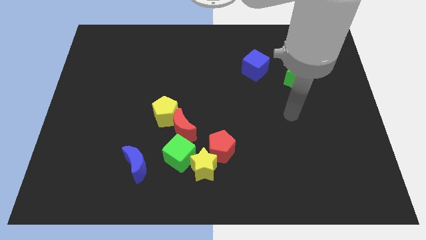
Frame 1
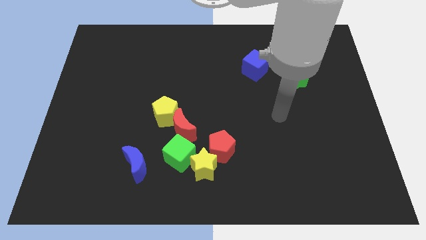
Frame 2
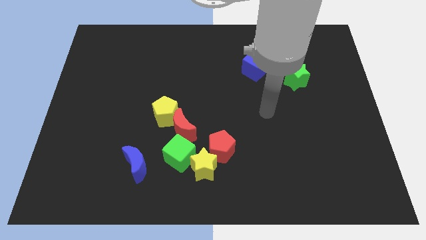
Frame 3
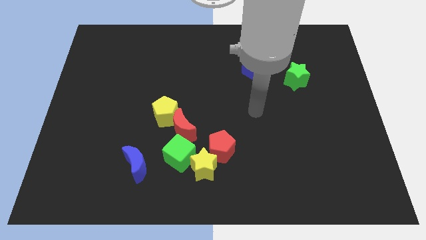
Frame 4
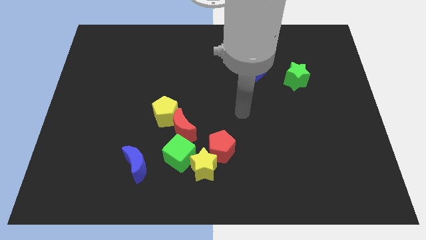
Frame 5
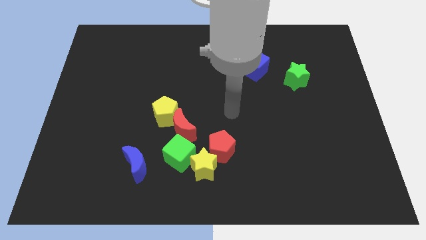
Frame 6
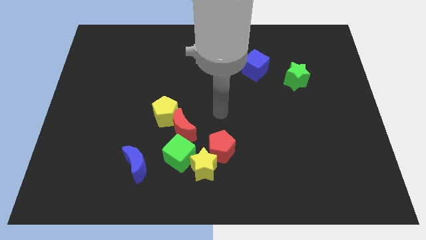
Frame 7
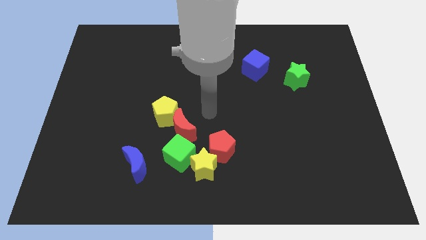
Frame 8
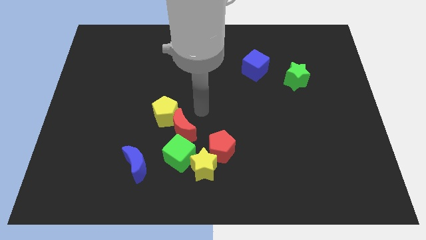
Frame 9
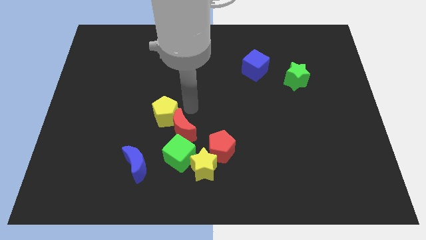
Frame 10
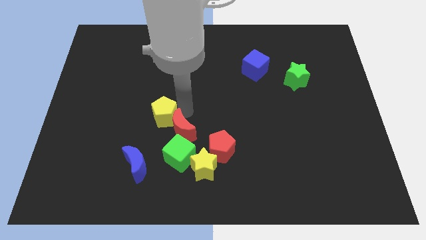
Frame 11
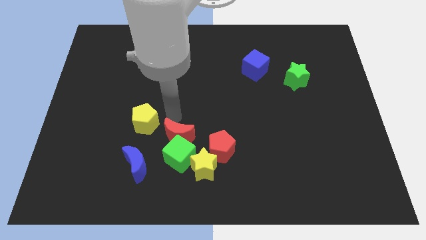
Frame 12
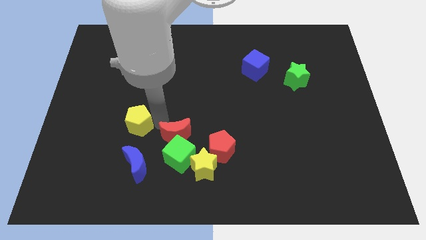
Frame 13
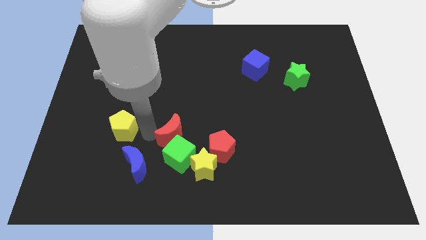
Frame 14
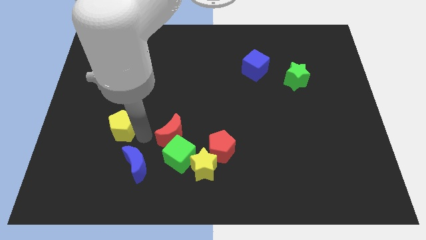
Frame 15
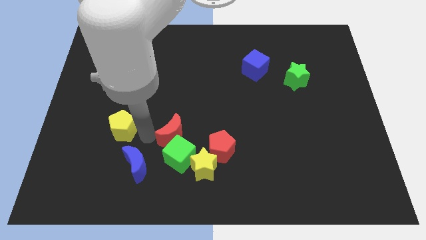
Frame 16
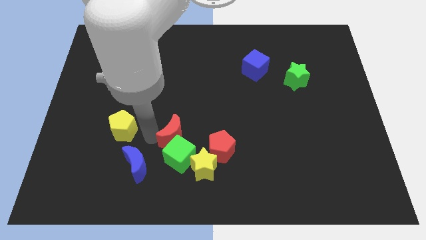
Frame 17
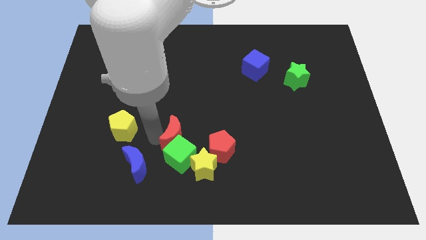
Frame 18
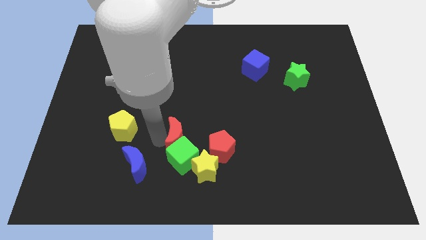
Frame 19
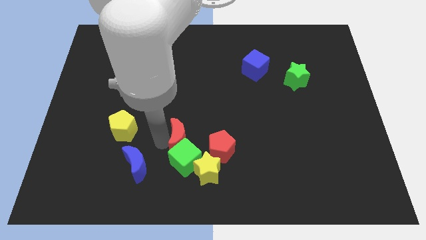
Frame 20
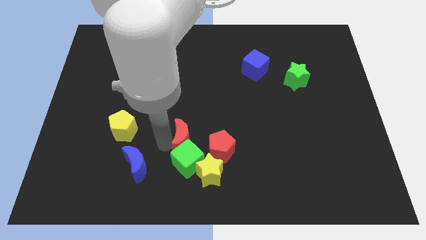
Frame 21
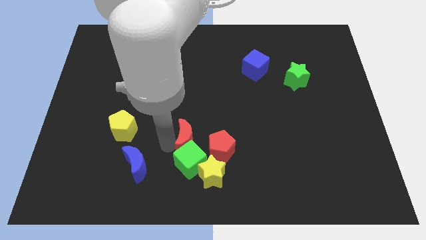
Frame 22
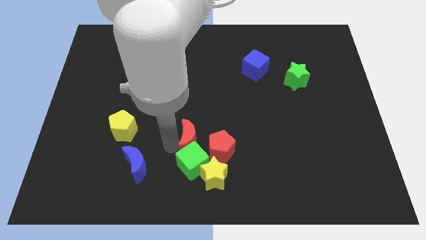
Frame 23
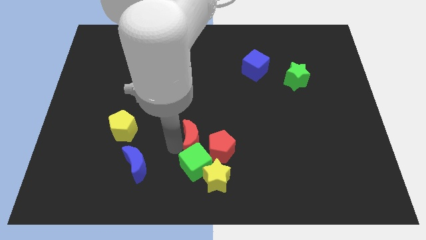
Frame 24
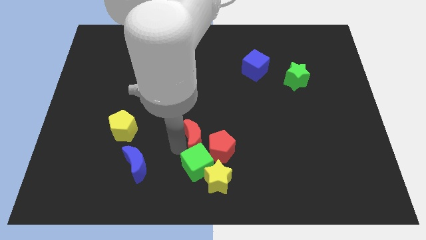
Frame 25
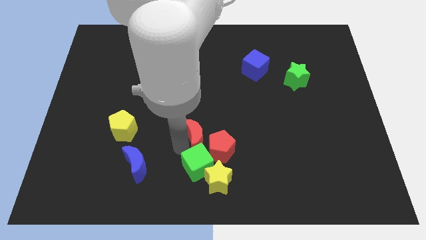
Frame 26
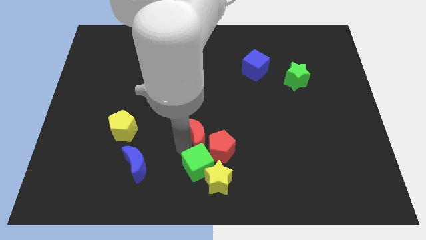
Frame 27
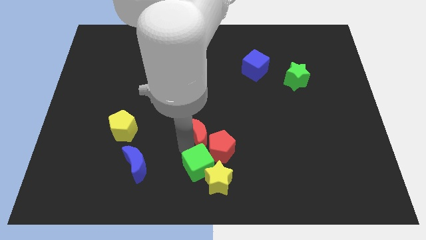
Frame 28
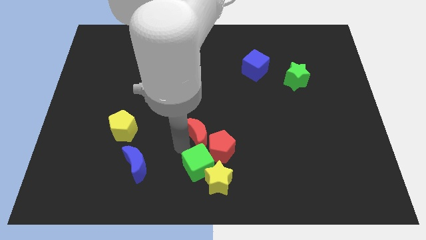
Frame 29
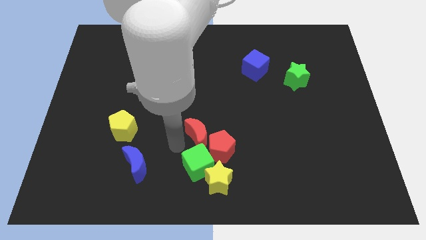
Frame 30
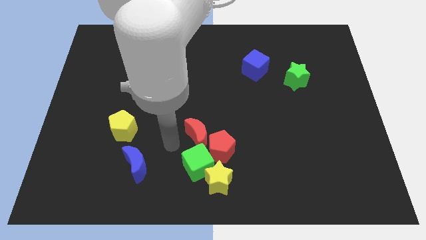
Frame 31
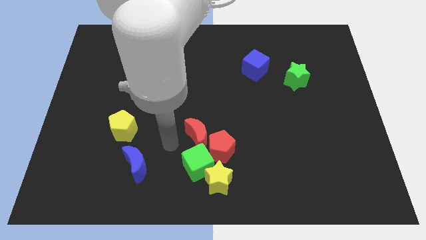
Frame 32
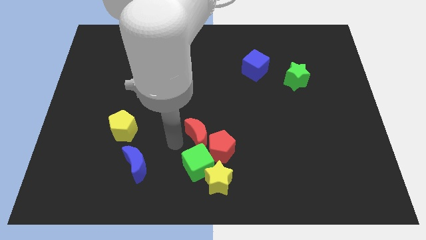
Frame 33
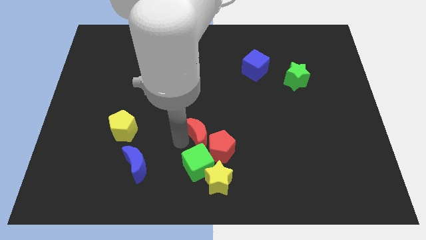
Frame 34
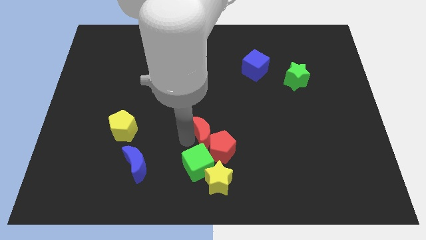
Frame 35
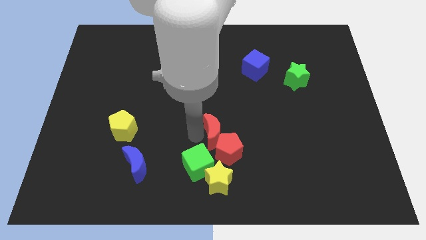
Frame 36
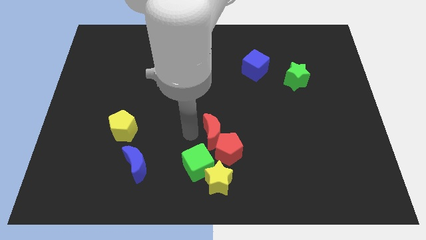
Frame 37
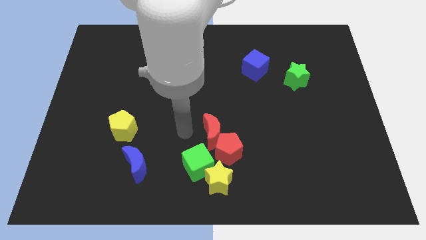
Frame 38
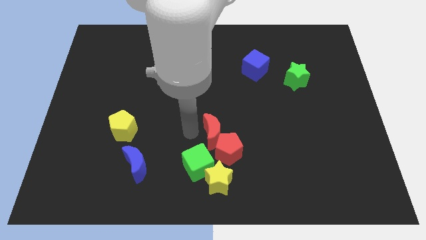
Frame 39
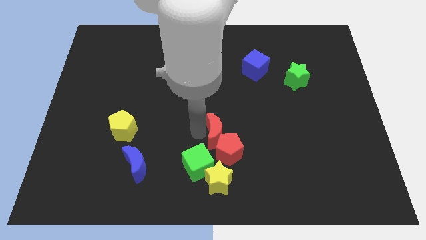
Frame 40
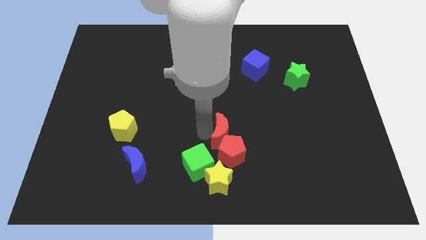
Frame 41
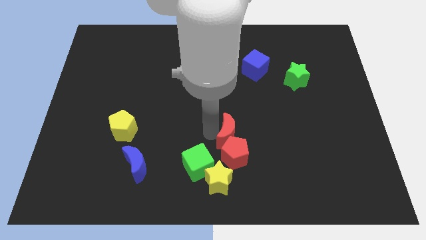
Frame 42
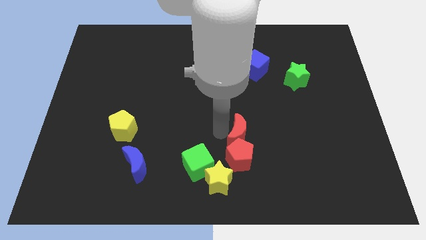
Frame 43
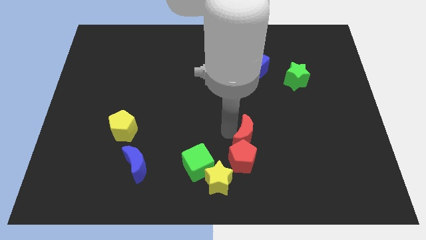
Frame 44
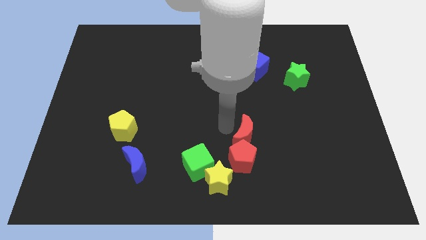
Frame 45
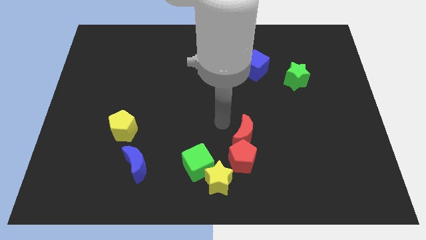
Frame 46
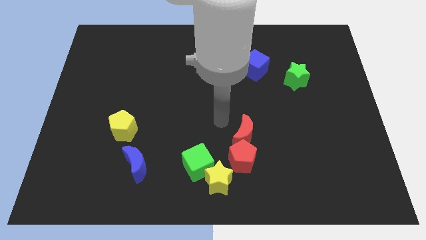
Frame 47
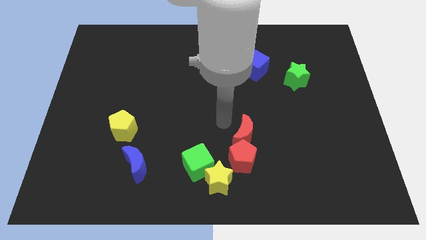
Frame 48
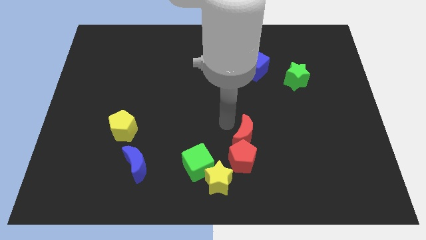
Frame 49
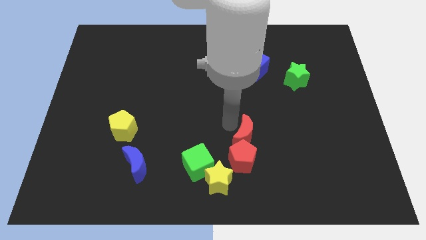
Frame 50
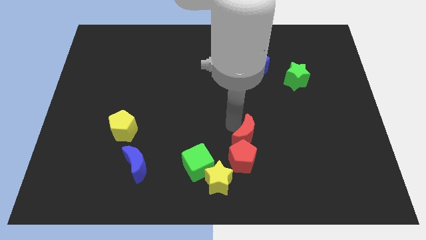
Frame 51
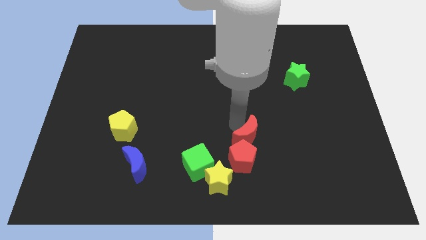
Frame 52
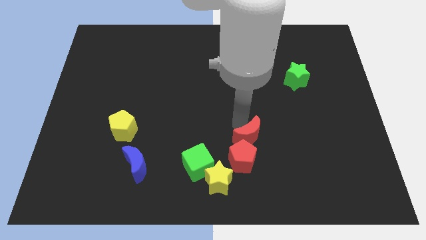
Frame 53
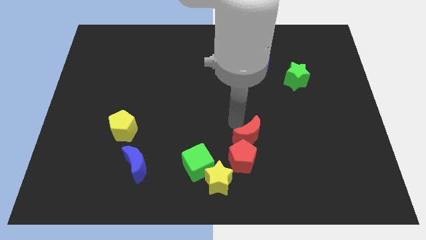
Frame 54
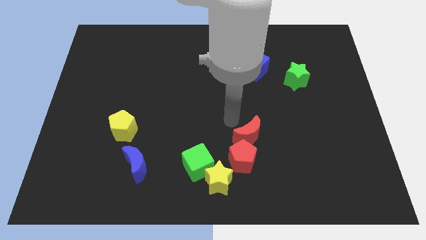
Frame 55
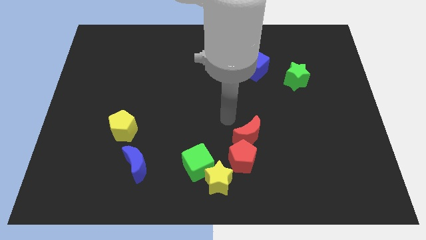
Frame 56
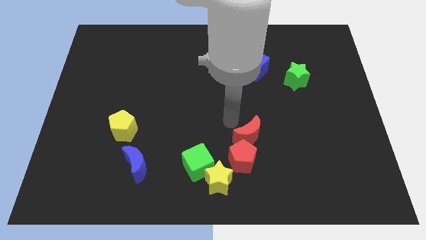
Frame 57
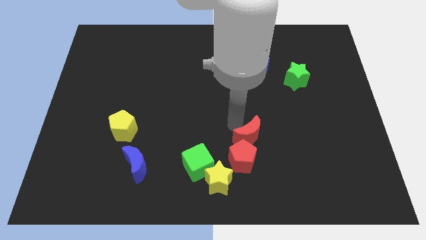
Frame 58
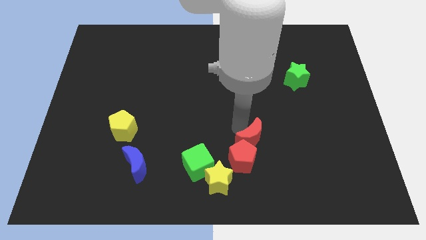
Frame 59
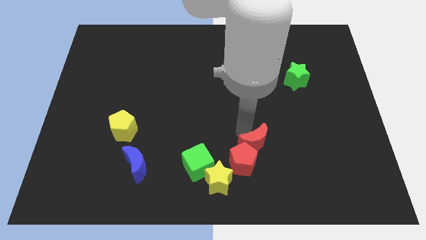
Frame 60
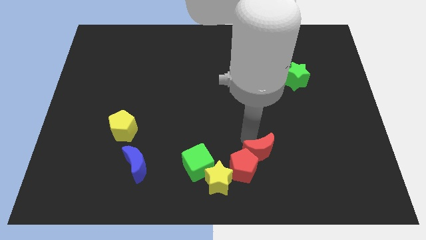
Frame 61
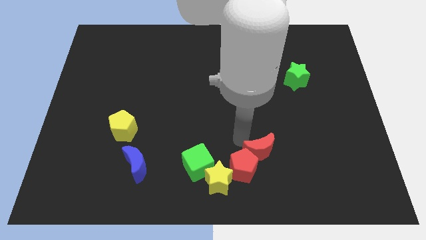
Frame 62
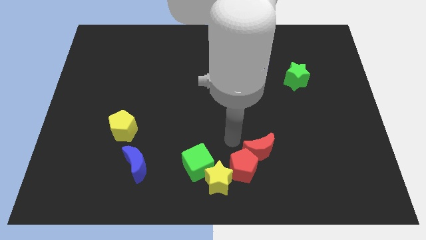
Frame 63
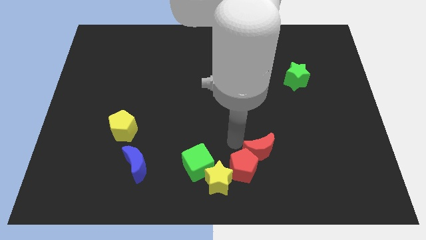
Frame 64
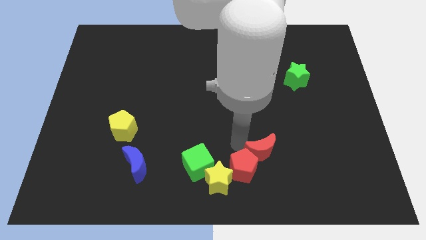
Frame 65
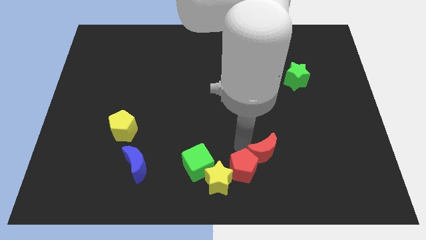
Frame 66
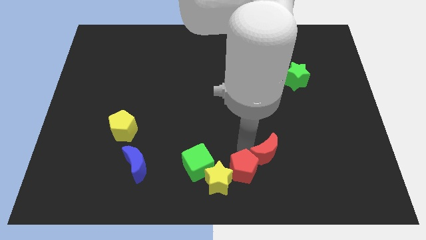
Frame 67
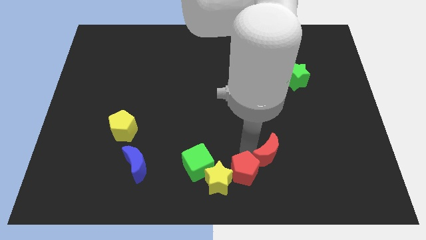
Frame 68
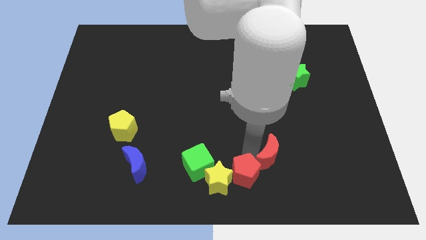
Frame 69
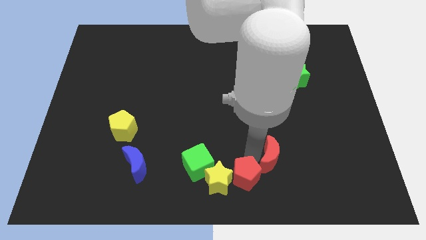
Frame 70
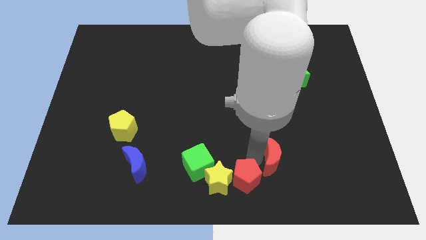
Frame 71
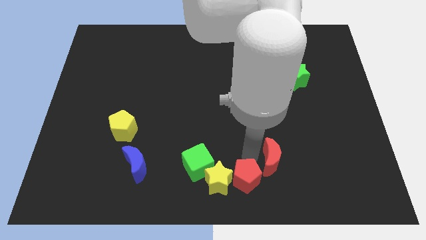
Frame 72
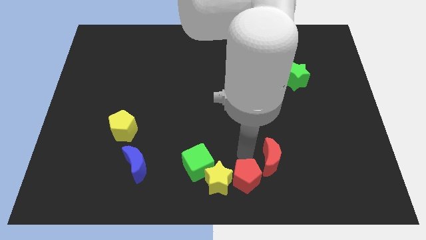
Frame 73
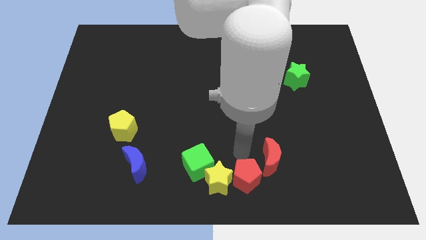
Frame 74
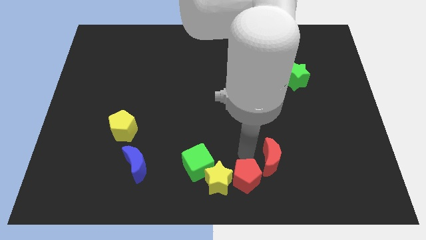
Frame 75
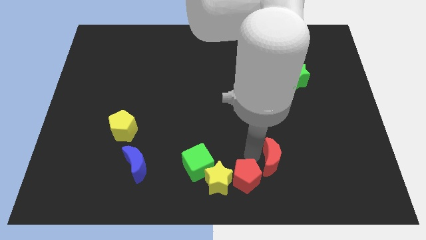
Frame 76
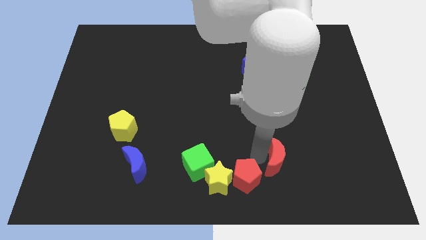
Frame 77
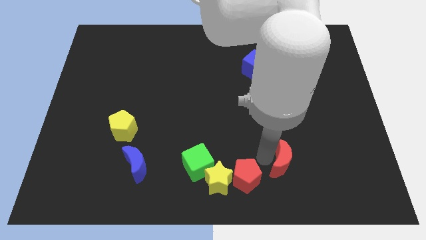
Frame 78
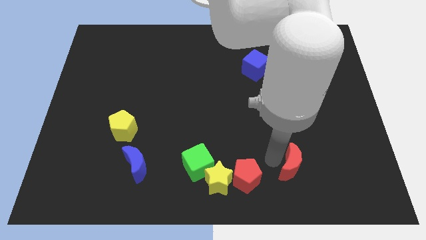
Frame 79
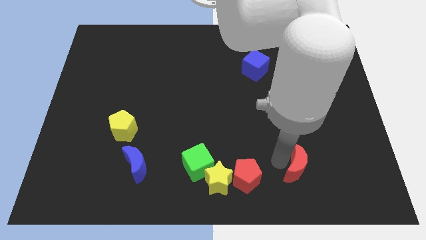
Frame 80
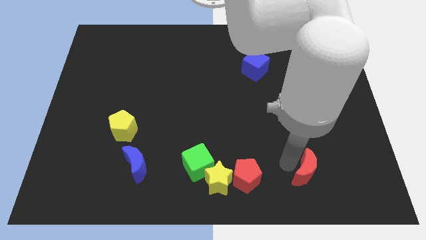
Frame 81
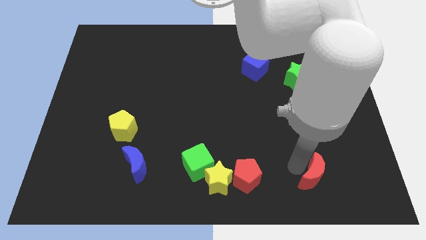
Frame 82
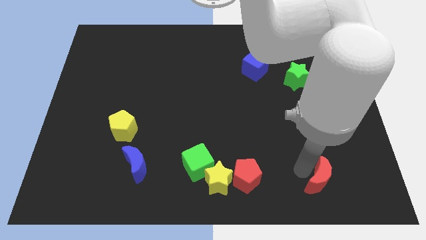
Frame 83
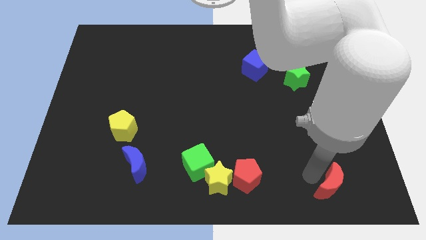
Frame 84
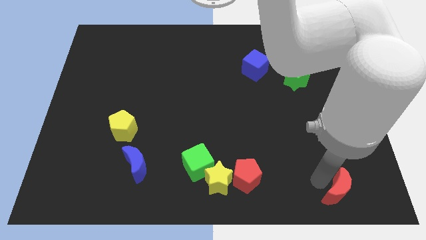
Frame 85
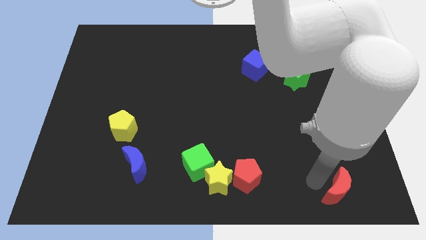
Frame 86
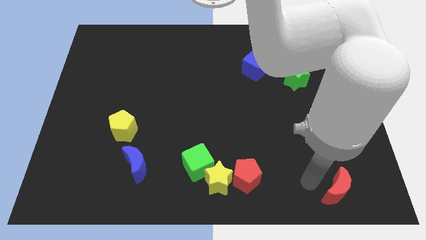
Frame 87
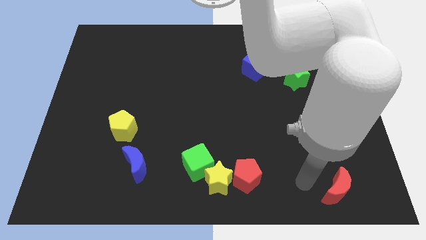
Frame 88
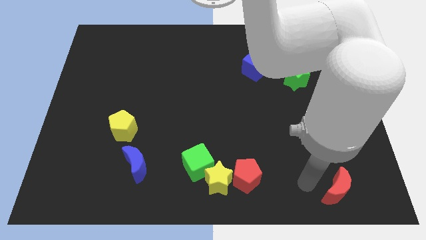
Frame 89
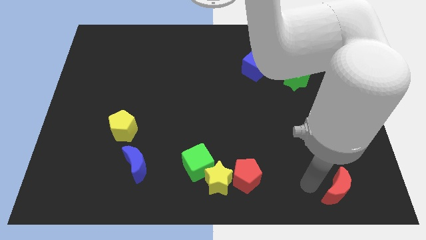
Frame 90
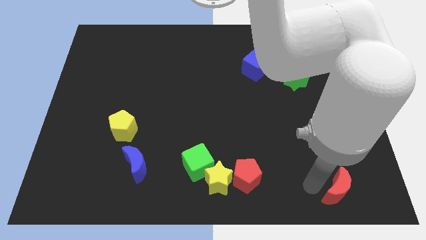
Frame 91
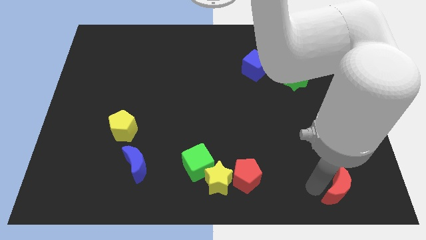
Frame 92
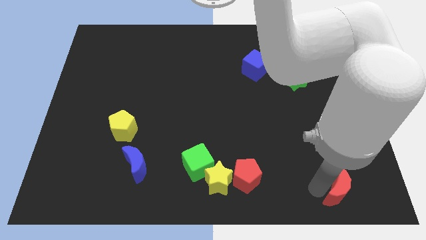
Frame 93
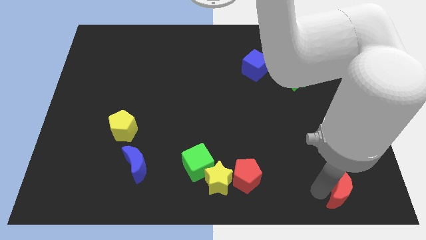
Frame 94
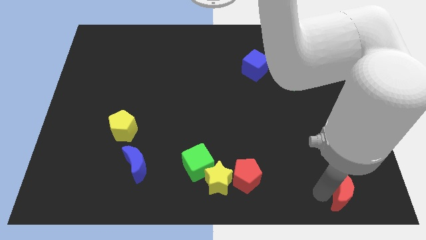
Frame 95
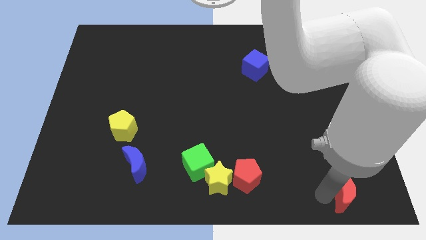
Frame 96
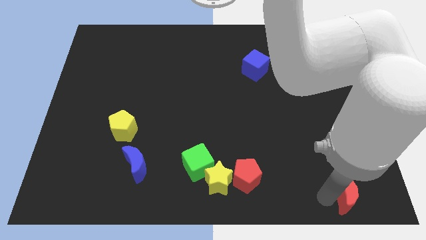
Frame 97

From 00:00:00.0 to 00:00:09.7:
move the red moon to the bottom right corner
